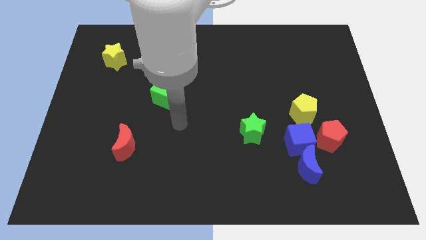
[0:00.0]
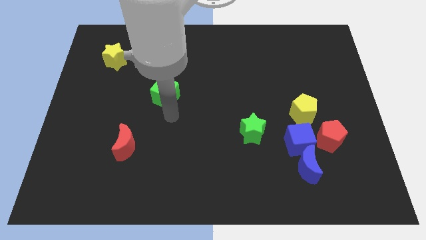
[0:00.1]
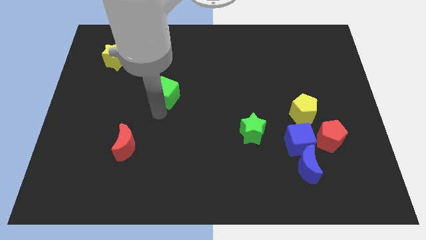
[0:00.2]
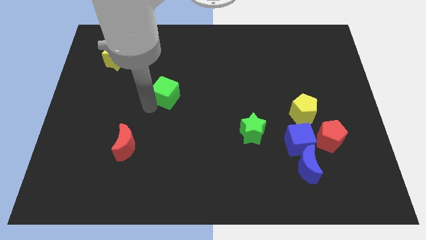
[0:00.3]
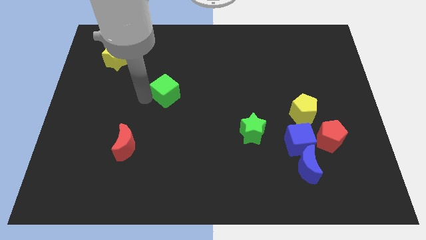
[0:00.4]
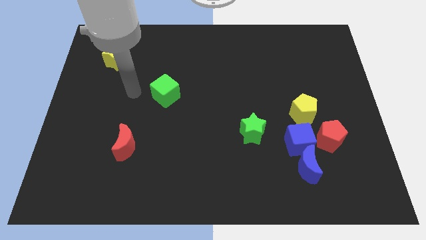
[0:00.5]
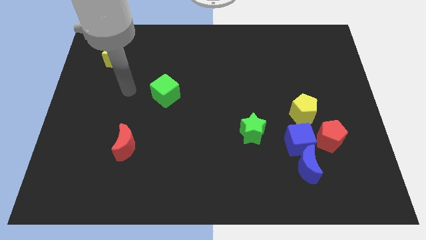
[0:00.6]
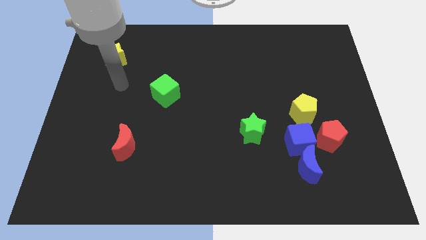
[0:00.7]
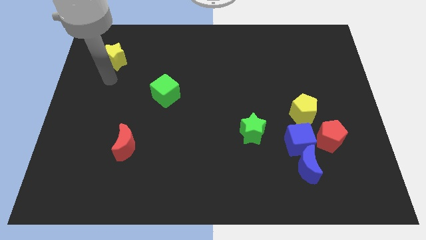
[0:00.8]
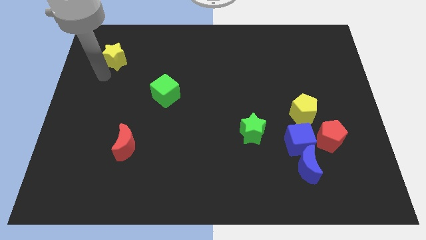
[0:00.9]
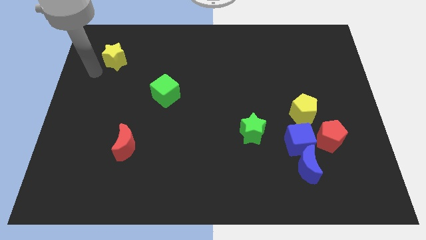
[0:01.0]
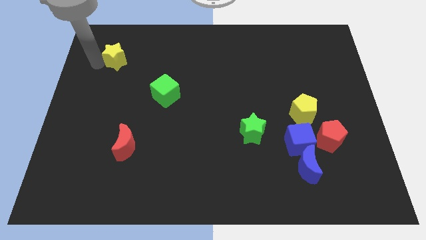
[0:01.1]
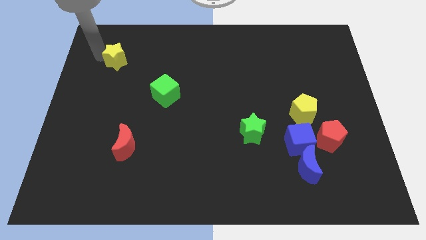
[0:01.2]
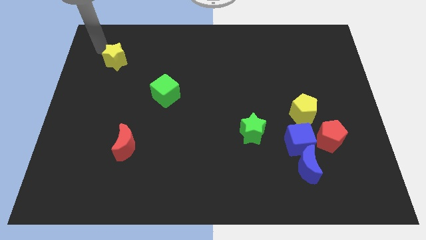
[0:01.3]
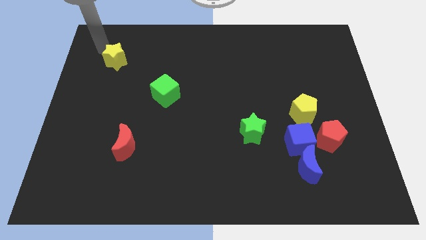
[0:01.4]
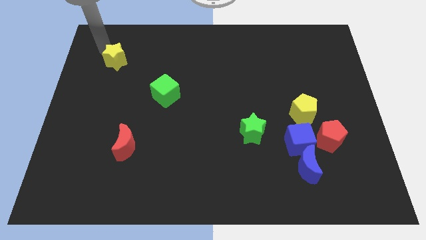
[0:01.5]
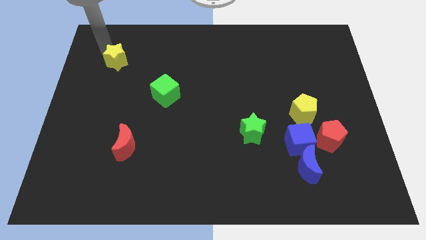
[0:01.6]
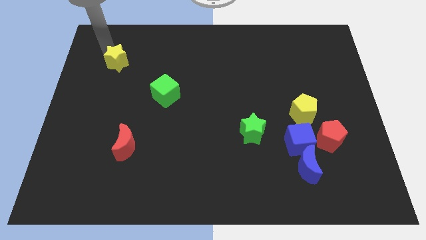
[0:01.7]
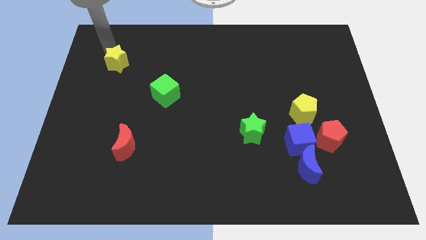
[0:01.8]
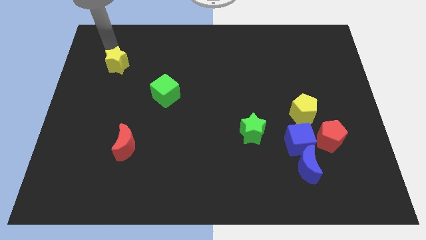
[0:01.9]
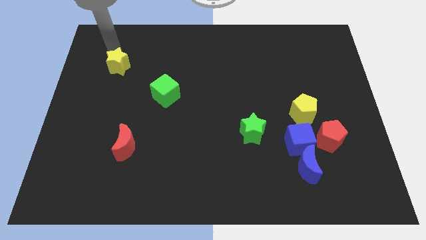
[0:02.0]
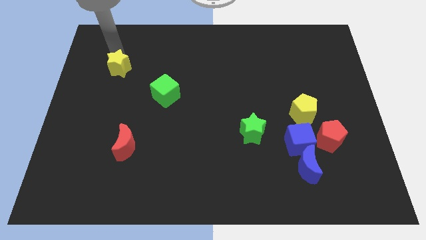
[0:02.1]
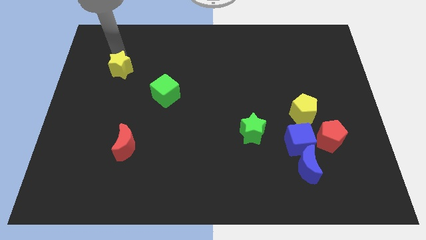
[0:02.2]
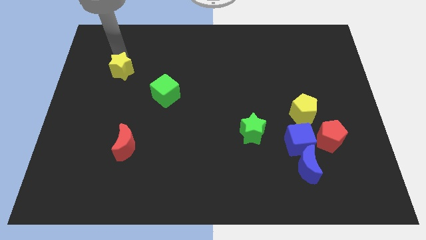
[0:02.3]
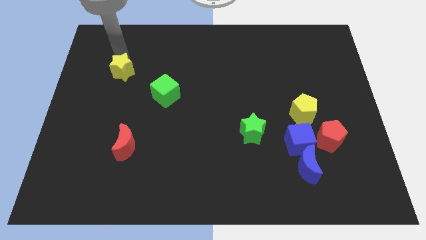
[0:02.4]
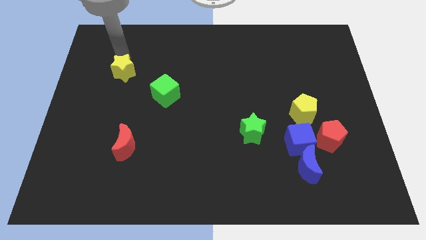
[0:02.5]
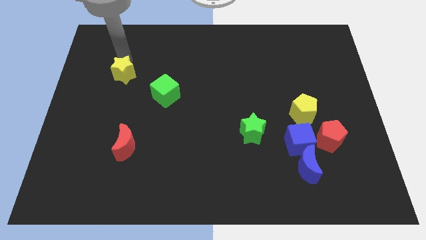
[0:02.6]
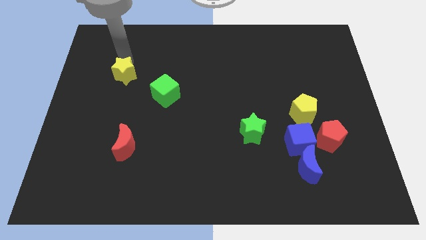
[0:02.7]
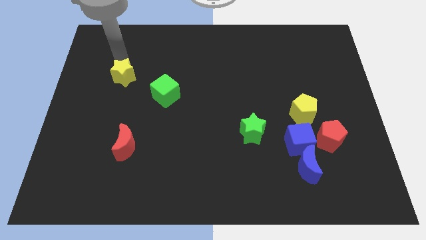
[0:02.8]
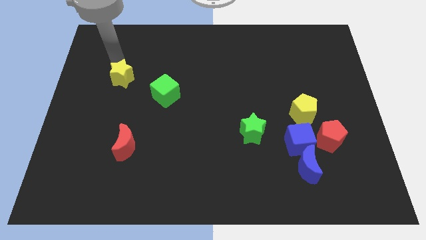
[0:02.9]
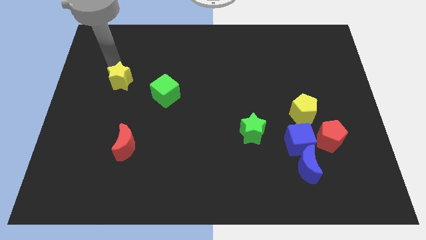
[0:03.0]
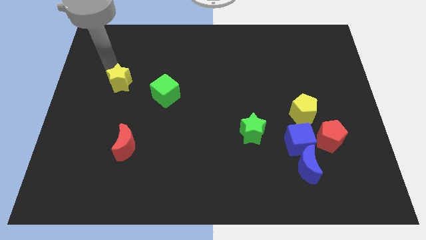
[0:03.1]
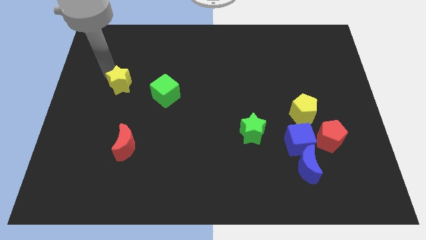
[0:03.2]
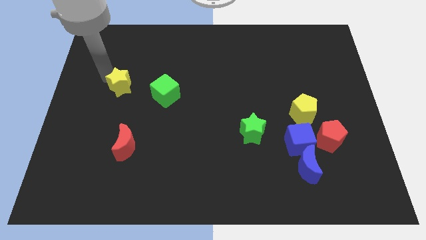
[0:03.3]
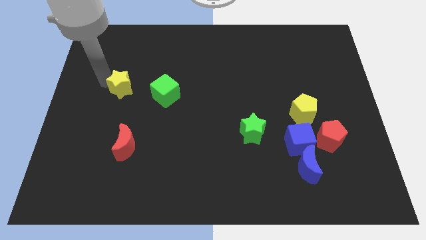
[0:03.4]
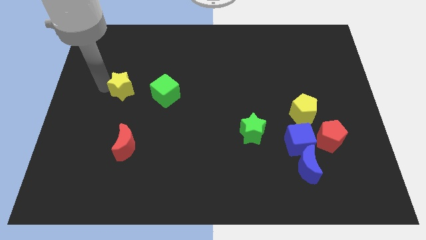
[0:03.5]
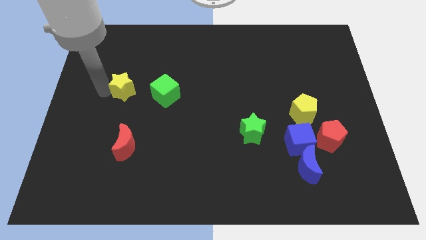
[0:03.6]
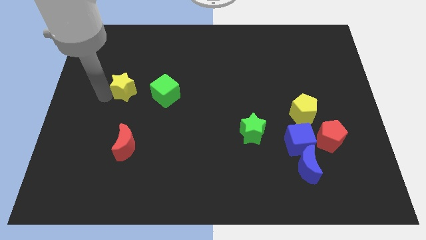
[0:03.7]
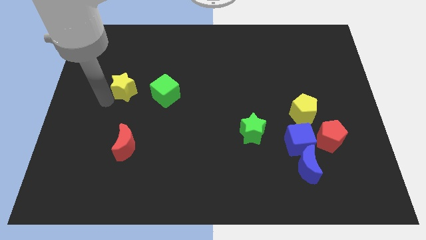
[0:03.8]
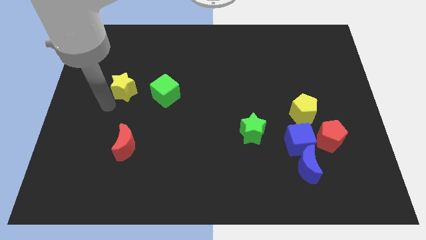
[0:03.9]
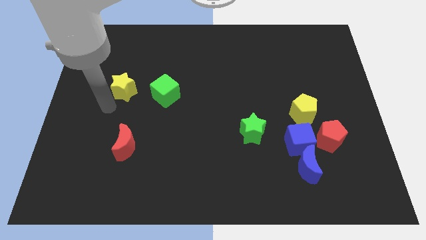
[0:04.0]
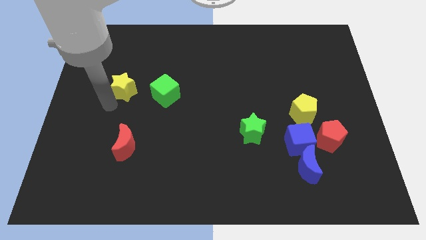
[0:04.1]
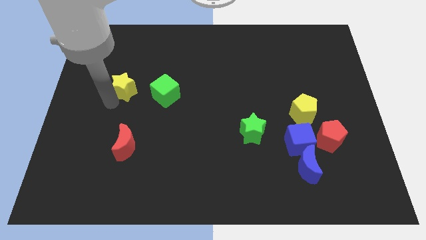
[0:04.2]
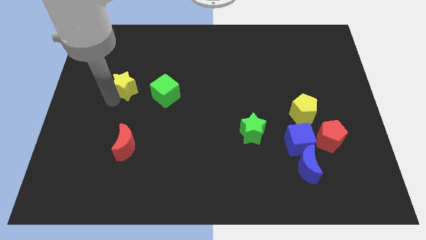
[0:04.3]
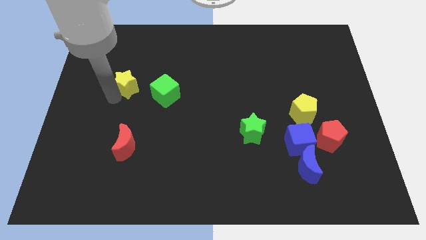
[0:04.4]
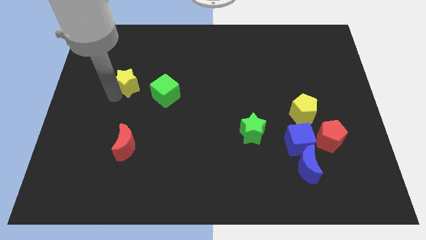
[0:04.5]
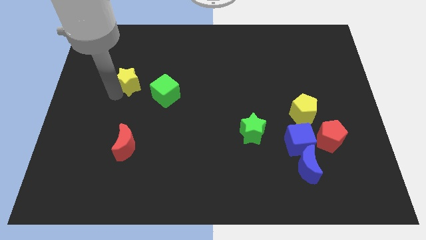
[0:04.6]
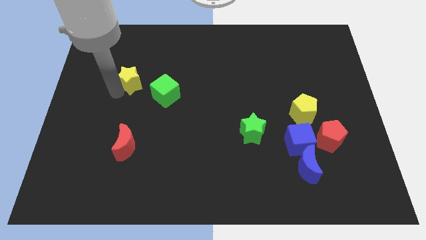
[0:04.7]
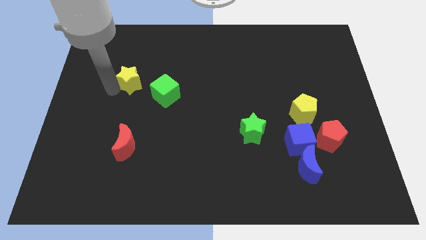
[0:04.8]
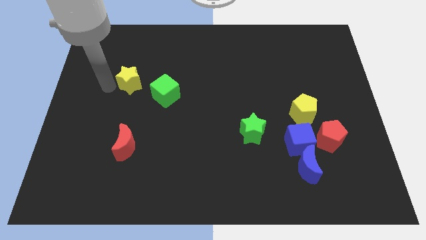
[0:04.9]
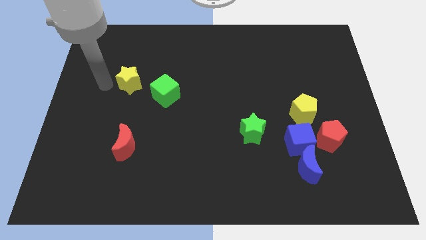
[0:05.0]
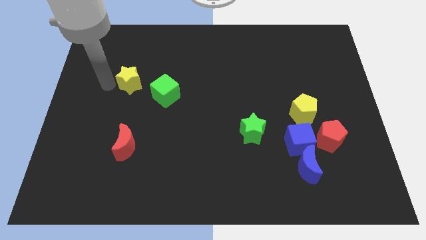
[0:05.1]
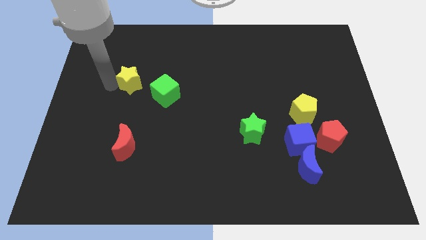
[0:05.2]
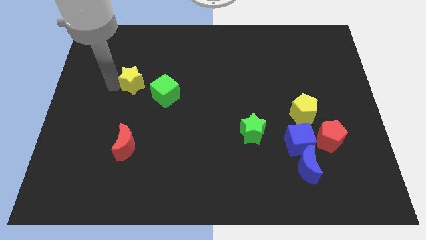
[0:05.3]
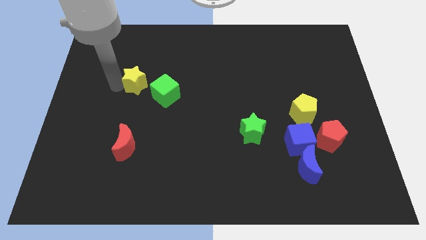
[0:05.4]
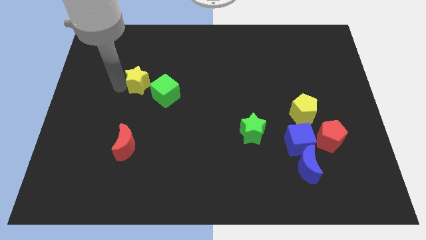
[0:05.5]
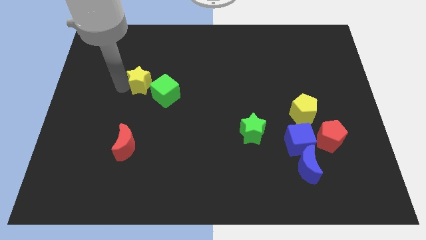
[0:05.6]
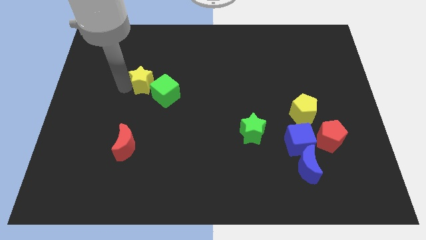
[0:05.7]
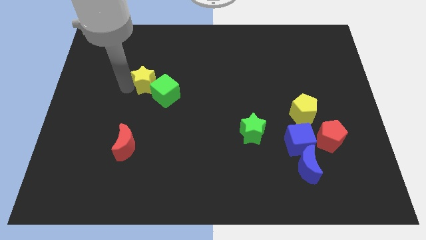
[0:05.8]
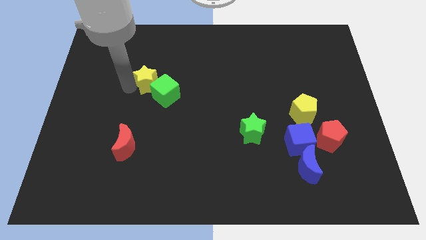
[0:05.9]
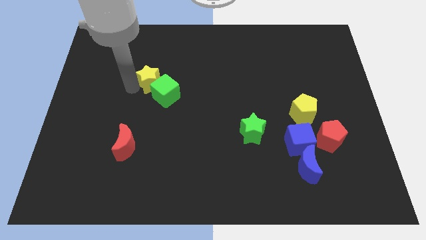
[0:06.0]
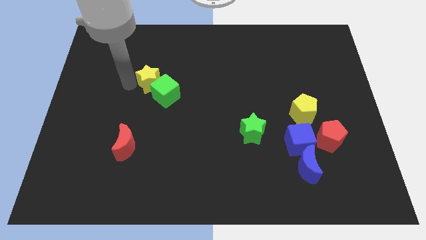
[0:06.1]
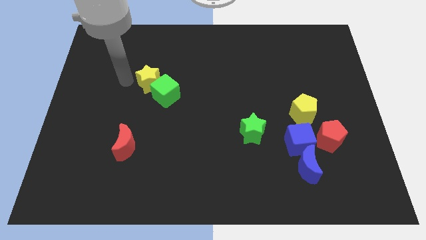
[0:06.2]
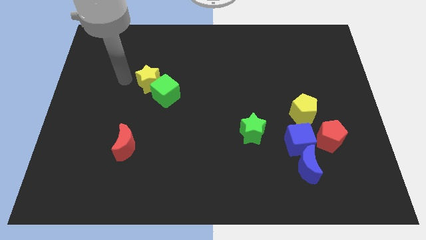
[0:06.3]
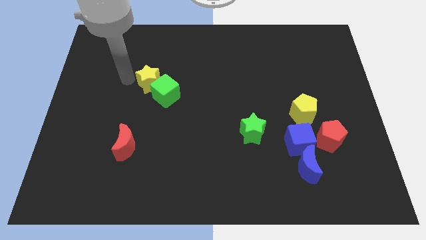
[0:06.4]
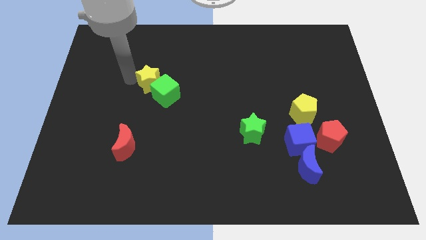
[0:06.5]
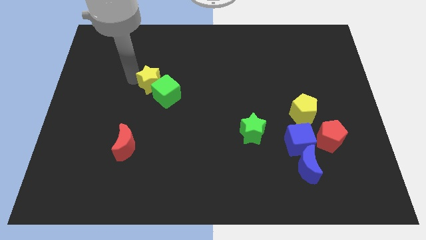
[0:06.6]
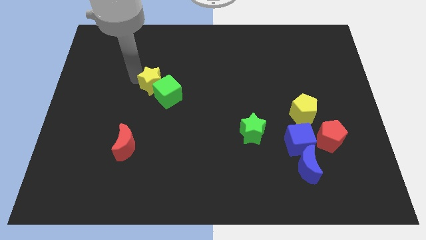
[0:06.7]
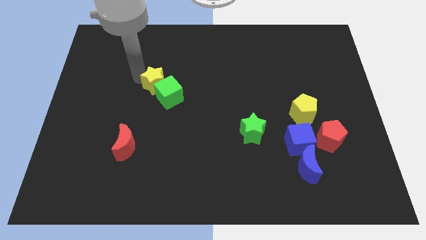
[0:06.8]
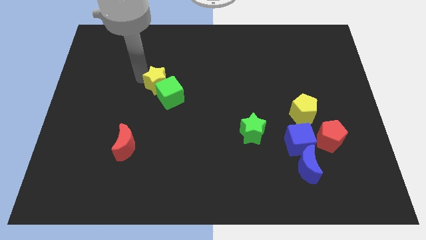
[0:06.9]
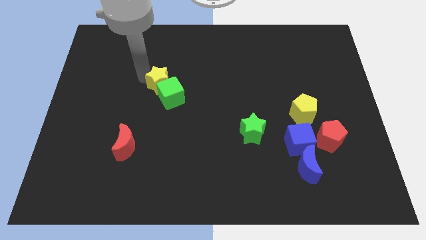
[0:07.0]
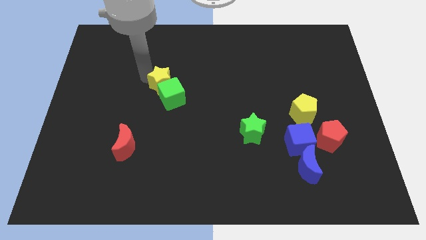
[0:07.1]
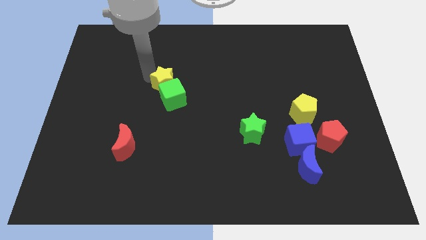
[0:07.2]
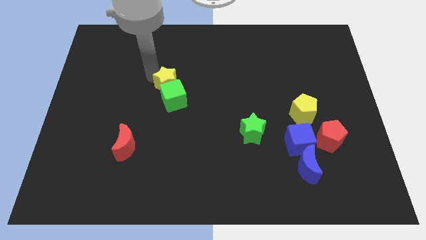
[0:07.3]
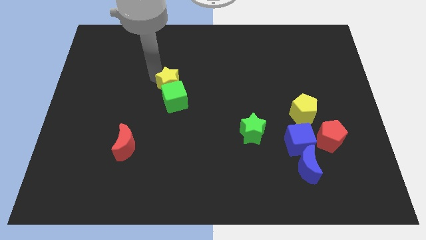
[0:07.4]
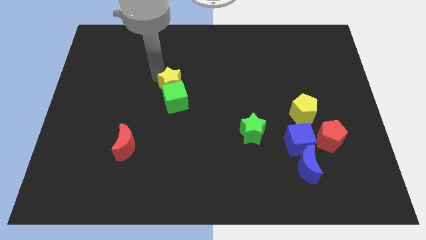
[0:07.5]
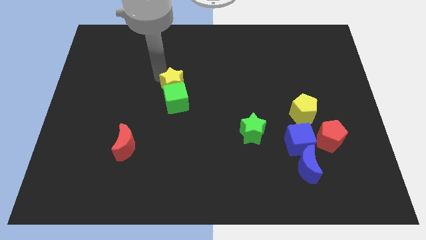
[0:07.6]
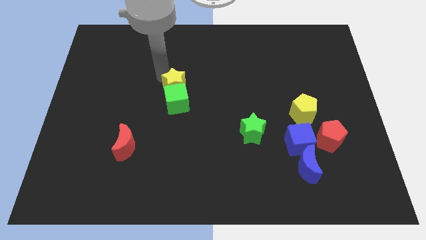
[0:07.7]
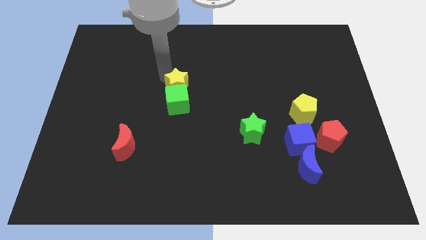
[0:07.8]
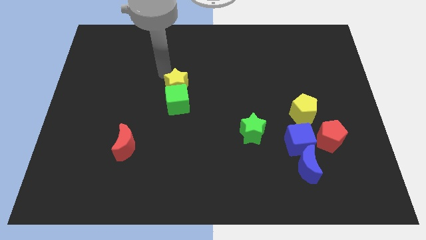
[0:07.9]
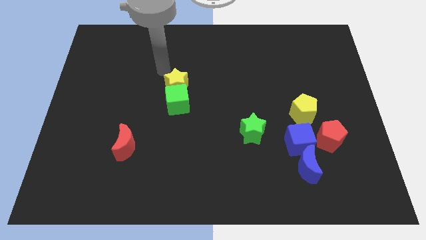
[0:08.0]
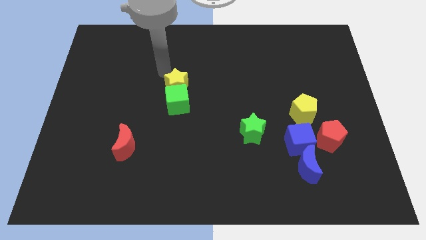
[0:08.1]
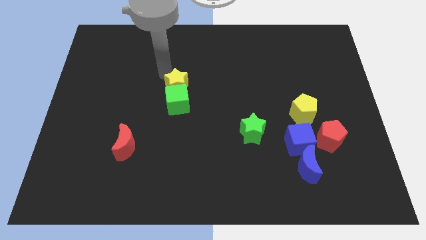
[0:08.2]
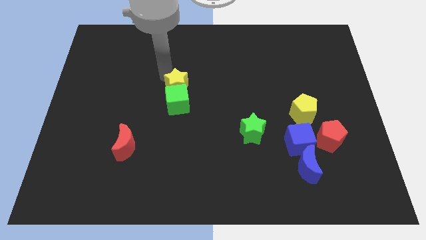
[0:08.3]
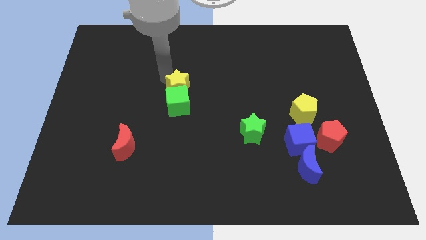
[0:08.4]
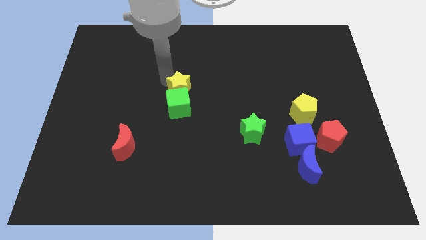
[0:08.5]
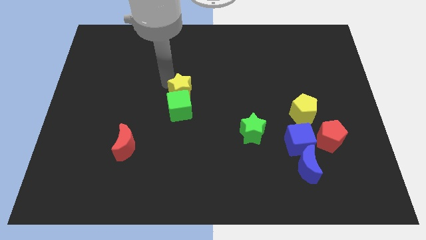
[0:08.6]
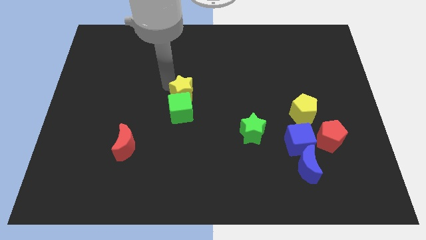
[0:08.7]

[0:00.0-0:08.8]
push the yellow star down and right diagonally
